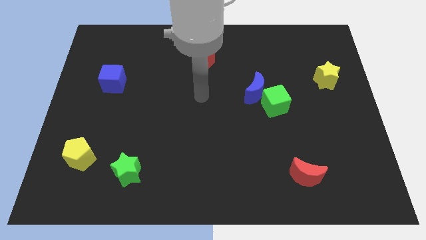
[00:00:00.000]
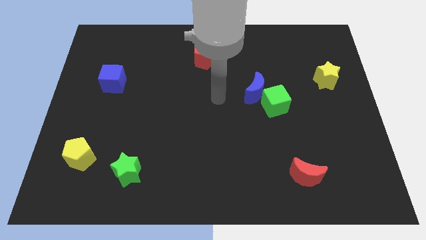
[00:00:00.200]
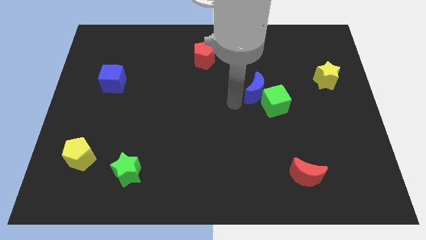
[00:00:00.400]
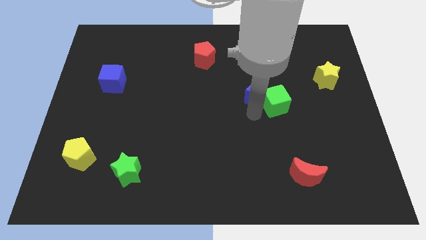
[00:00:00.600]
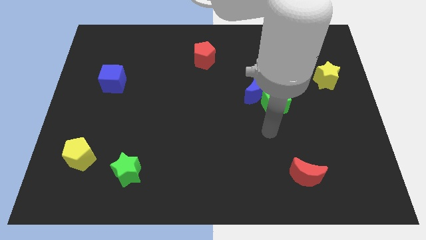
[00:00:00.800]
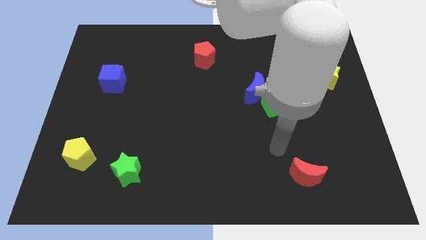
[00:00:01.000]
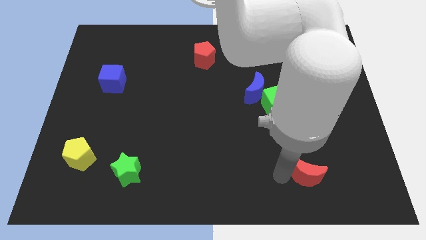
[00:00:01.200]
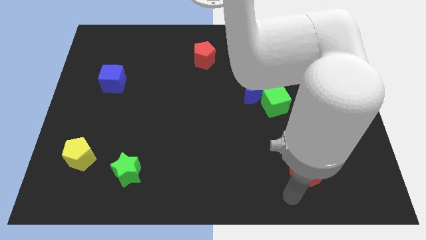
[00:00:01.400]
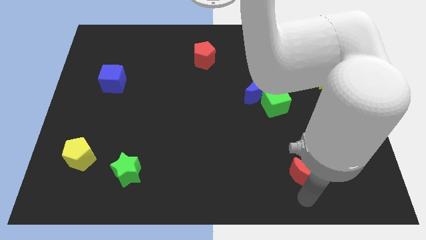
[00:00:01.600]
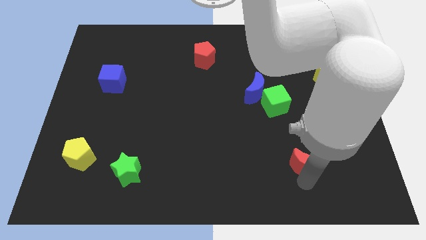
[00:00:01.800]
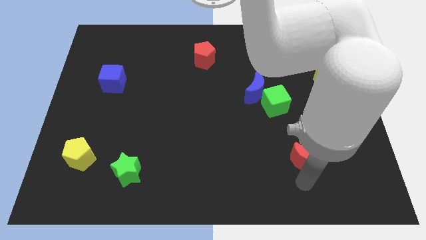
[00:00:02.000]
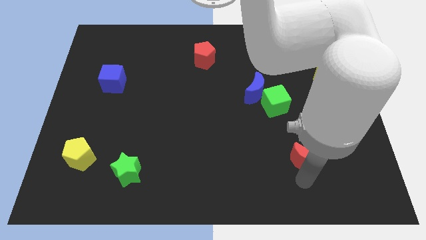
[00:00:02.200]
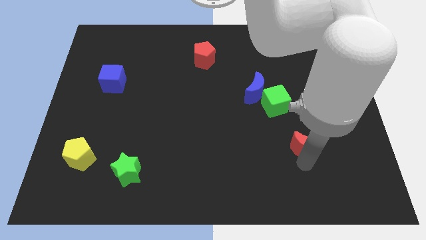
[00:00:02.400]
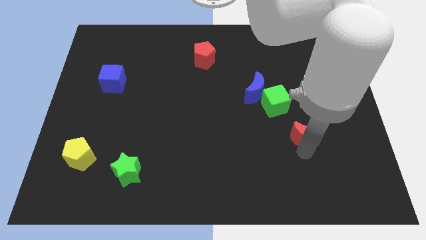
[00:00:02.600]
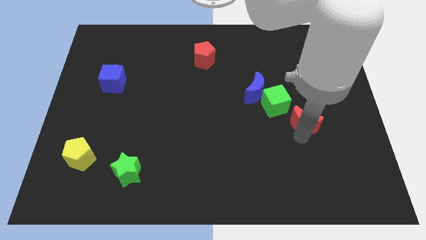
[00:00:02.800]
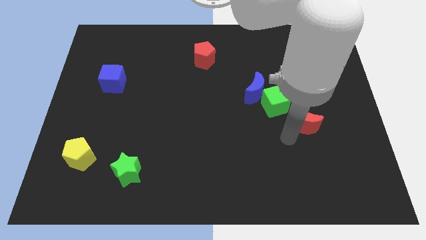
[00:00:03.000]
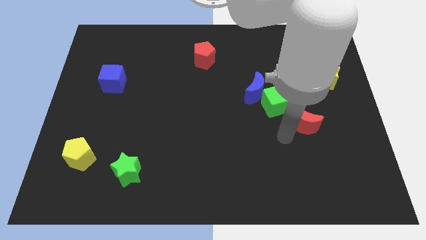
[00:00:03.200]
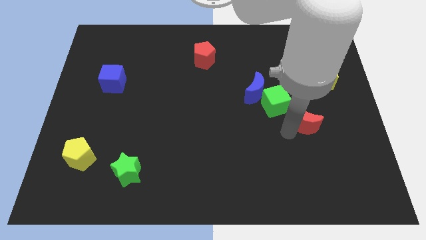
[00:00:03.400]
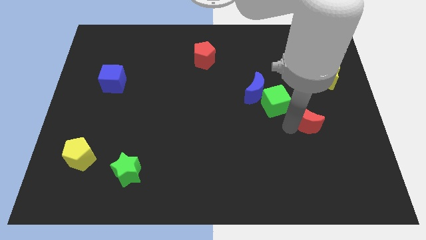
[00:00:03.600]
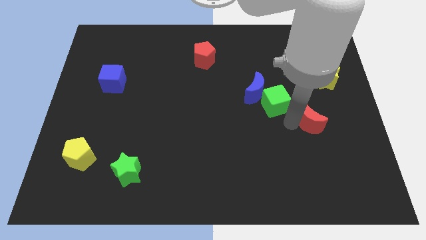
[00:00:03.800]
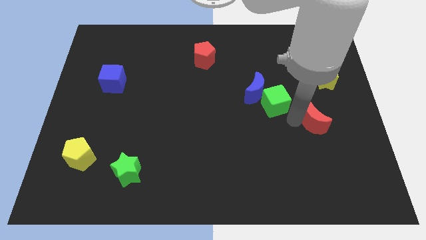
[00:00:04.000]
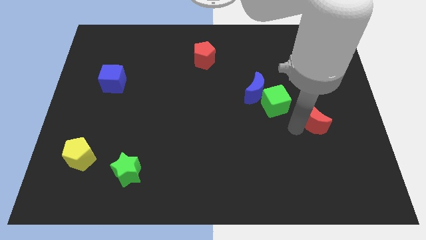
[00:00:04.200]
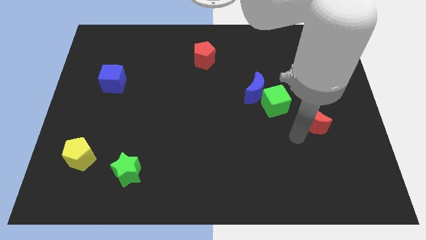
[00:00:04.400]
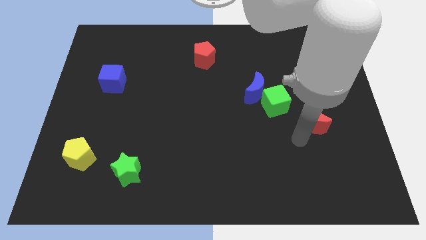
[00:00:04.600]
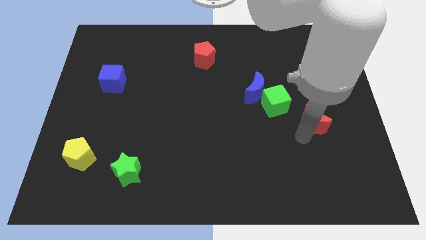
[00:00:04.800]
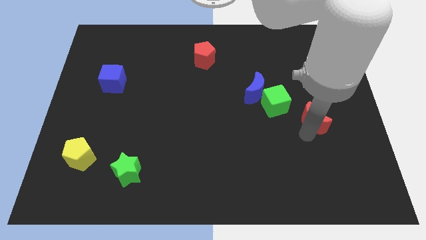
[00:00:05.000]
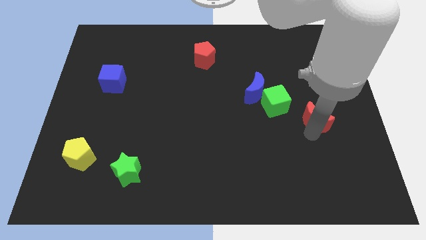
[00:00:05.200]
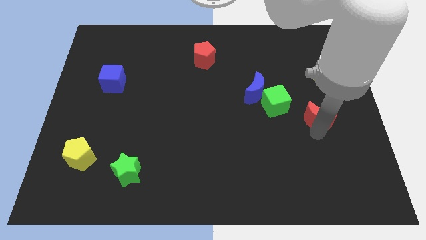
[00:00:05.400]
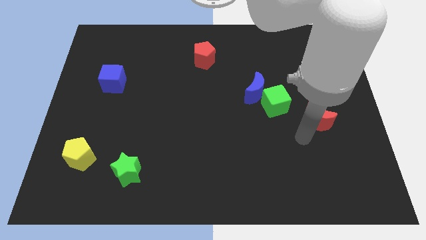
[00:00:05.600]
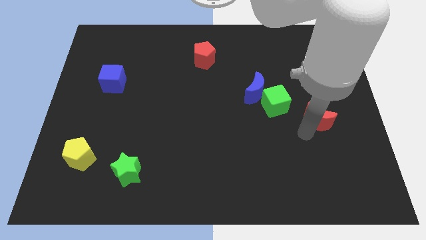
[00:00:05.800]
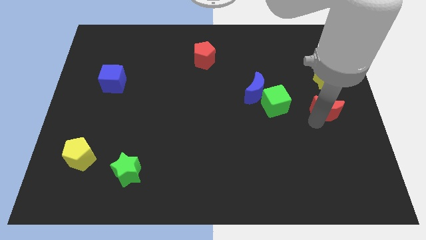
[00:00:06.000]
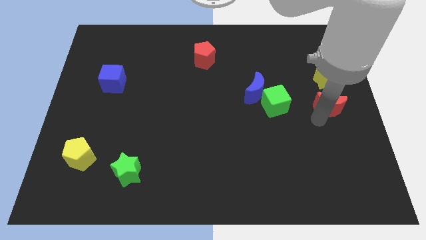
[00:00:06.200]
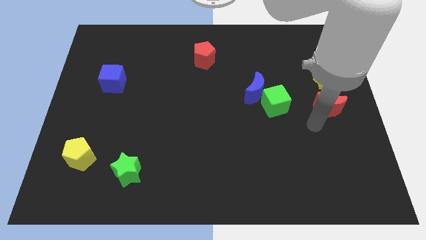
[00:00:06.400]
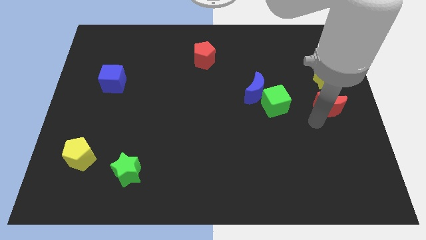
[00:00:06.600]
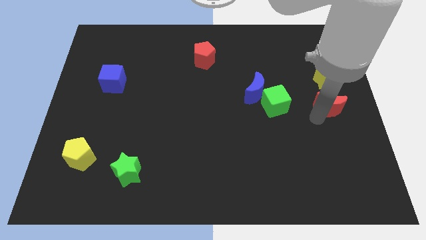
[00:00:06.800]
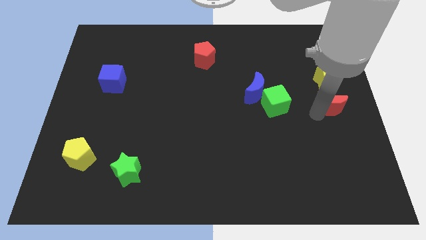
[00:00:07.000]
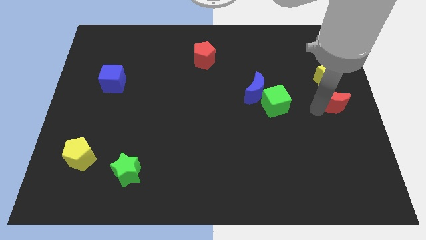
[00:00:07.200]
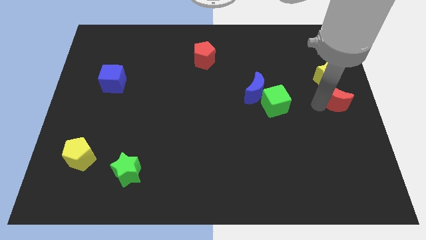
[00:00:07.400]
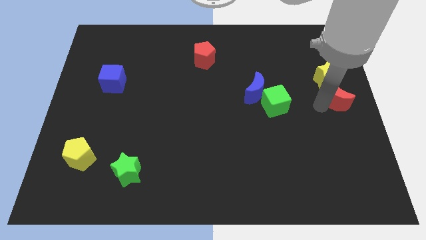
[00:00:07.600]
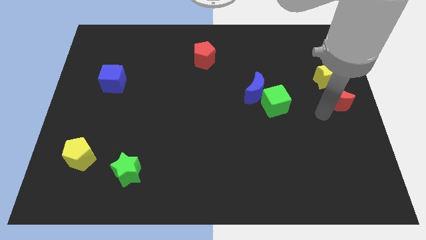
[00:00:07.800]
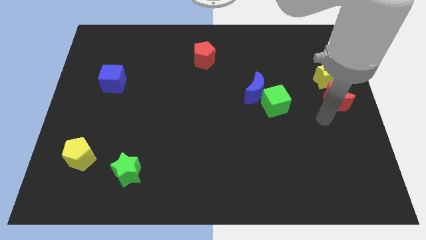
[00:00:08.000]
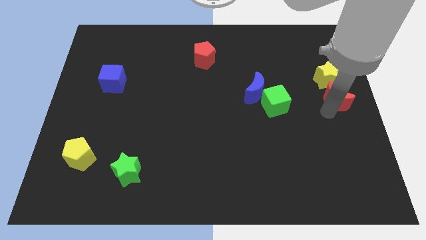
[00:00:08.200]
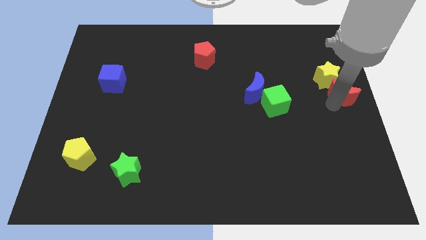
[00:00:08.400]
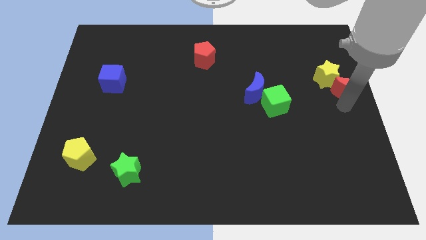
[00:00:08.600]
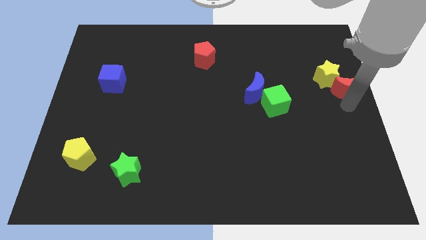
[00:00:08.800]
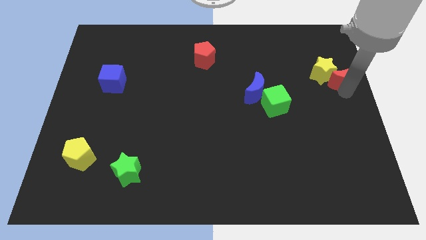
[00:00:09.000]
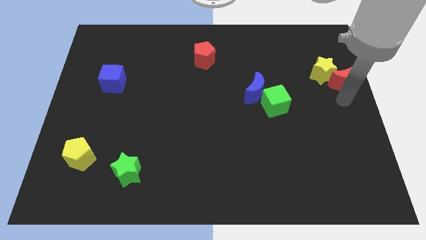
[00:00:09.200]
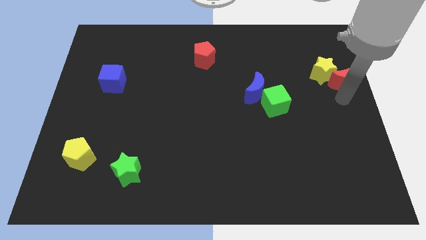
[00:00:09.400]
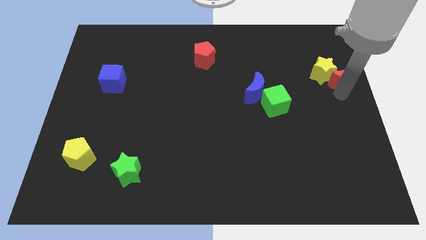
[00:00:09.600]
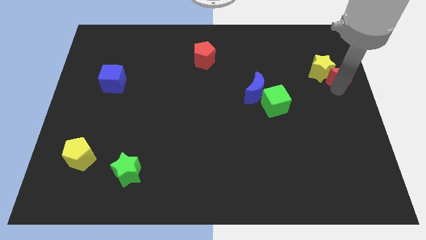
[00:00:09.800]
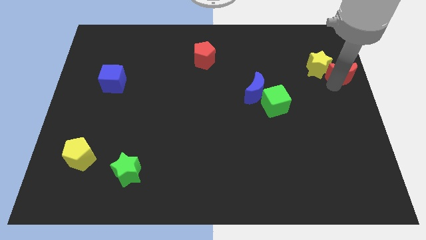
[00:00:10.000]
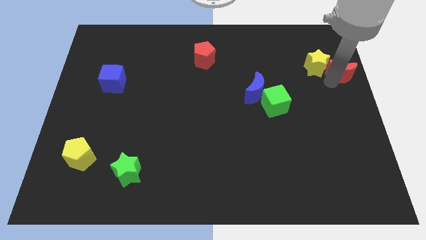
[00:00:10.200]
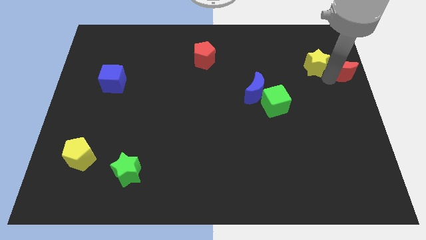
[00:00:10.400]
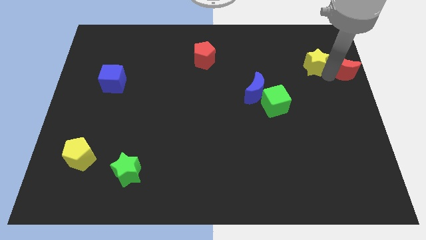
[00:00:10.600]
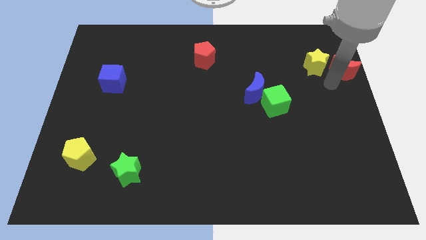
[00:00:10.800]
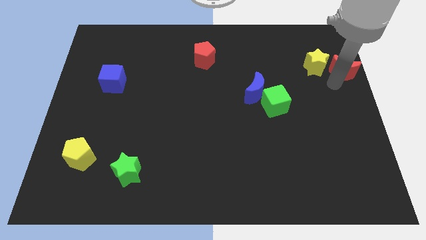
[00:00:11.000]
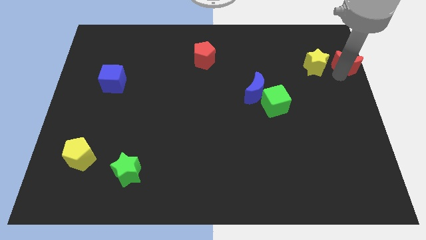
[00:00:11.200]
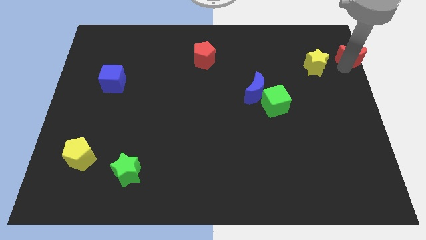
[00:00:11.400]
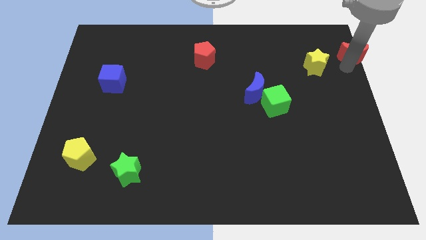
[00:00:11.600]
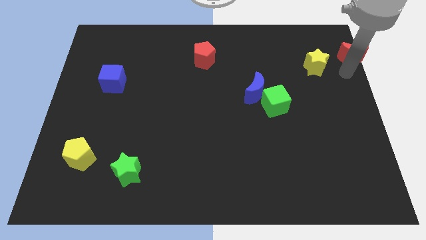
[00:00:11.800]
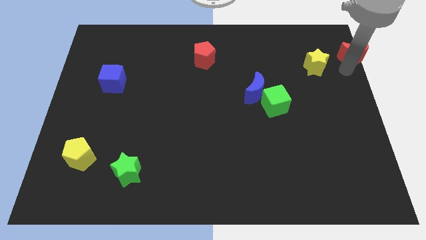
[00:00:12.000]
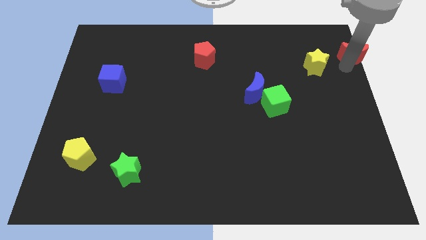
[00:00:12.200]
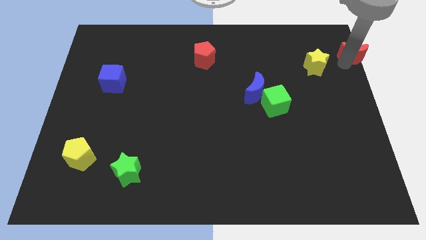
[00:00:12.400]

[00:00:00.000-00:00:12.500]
push the red moon to the top right of the board
